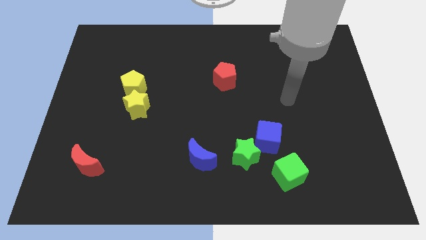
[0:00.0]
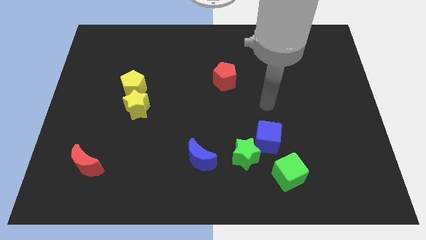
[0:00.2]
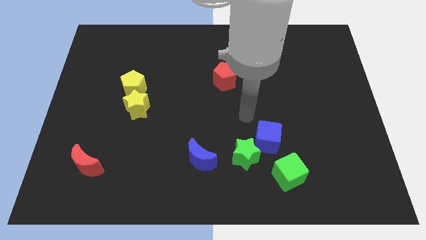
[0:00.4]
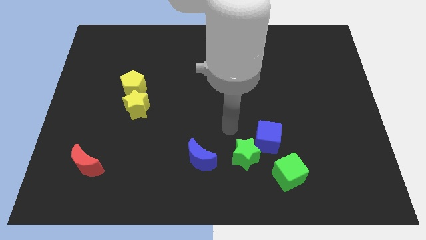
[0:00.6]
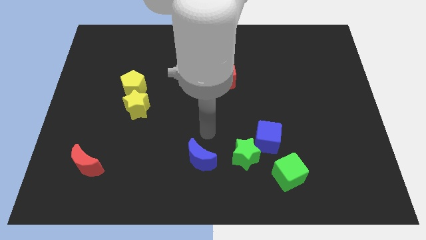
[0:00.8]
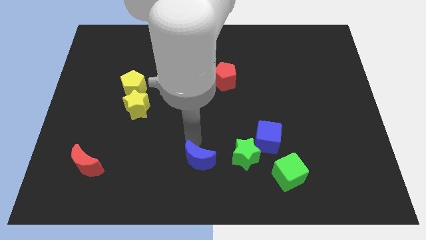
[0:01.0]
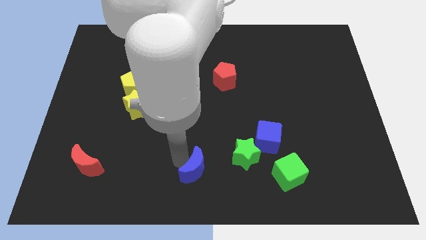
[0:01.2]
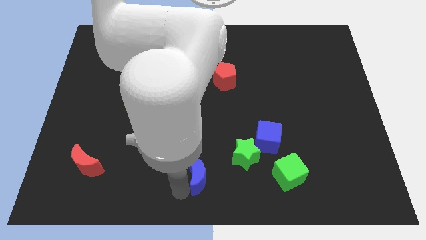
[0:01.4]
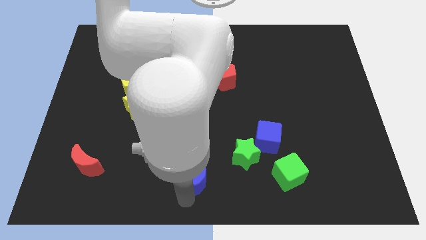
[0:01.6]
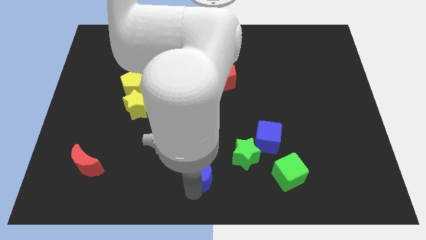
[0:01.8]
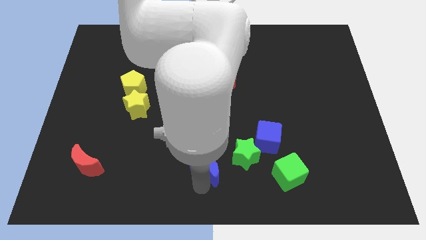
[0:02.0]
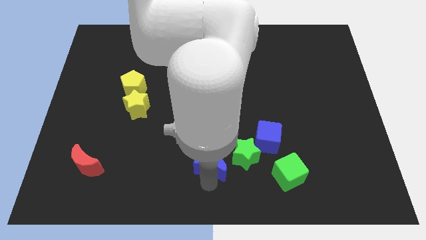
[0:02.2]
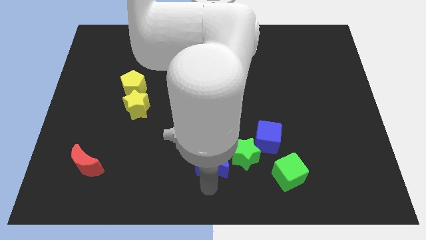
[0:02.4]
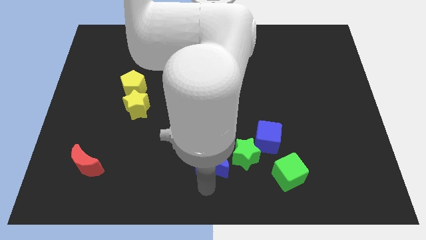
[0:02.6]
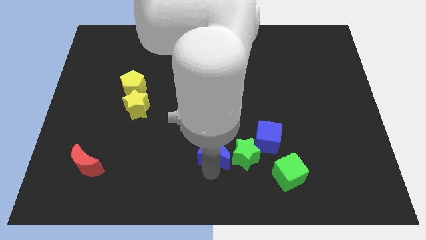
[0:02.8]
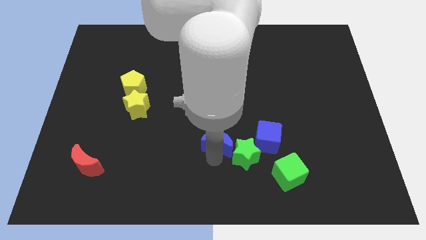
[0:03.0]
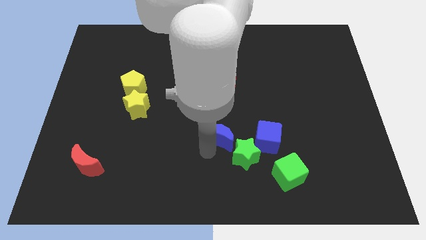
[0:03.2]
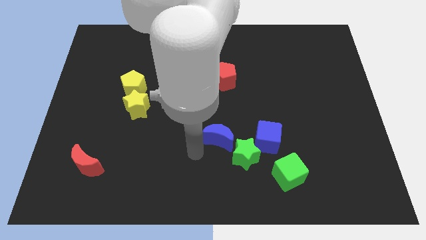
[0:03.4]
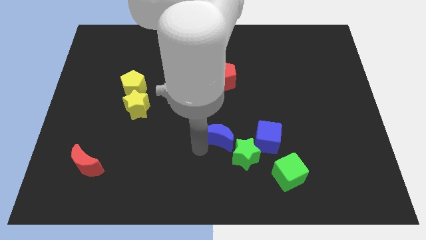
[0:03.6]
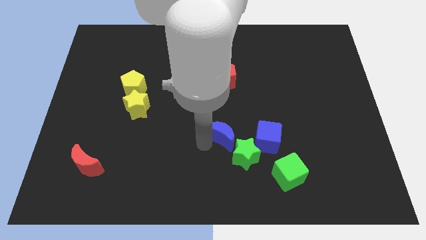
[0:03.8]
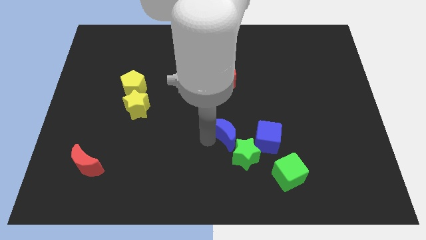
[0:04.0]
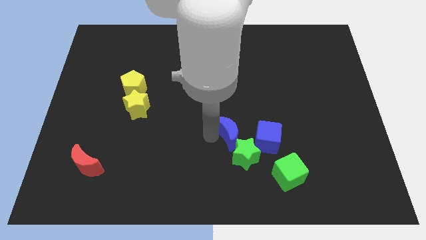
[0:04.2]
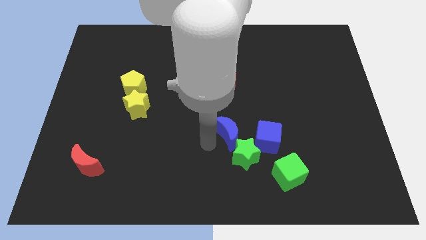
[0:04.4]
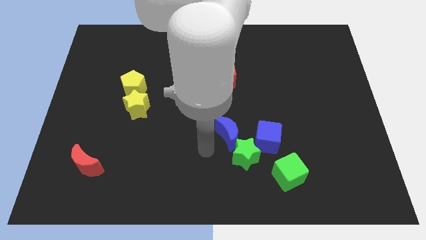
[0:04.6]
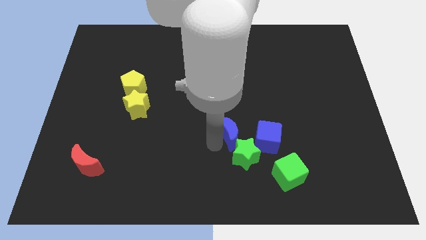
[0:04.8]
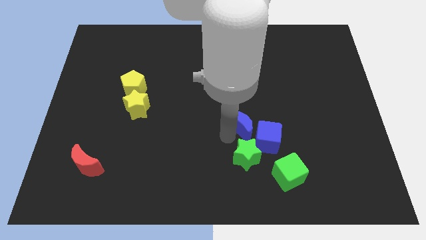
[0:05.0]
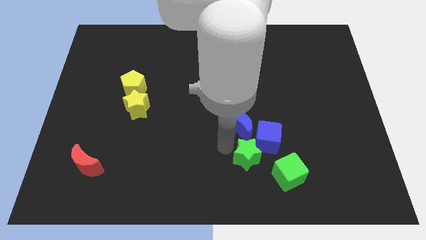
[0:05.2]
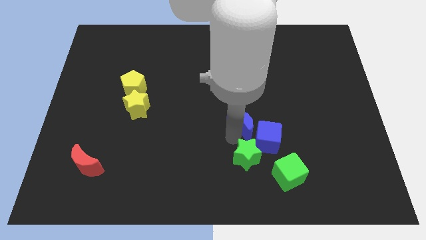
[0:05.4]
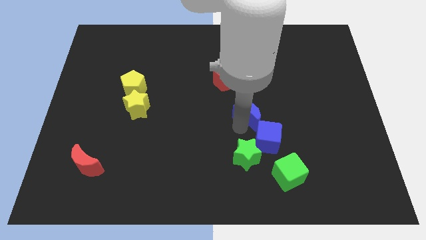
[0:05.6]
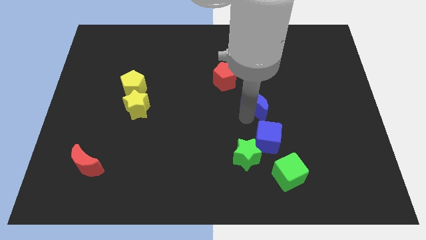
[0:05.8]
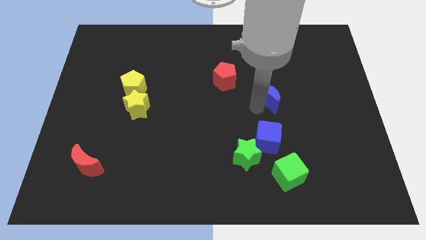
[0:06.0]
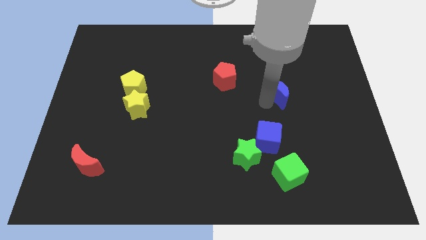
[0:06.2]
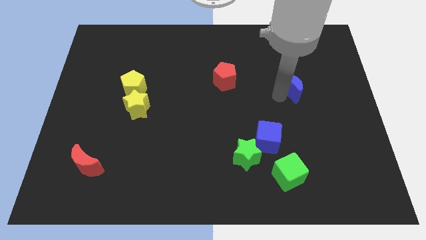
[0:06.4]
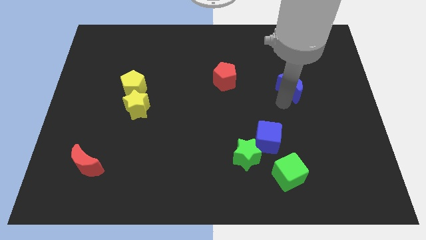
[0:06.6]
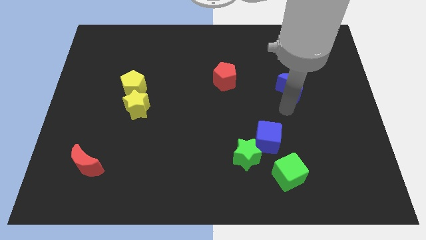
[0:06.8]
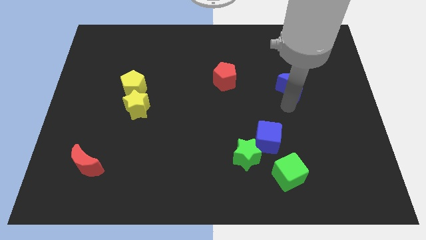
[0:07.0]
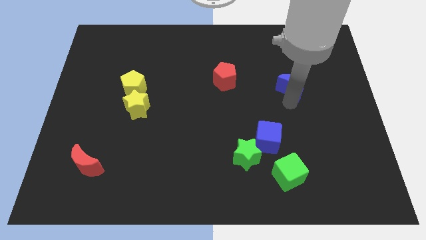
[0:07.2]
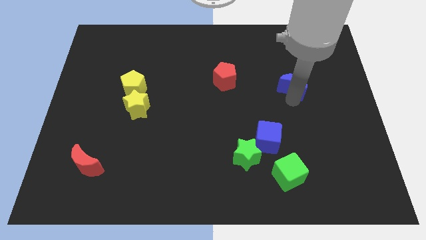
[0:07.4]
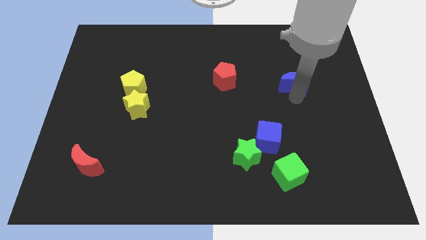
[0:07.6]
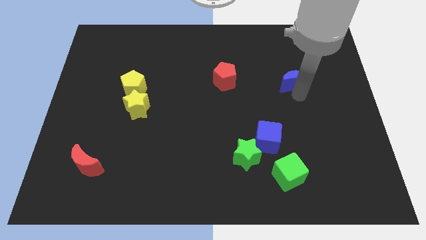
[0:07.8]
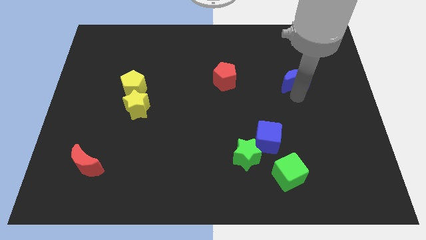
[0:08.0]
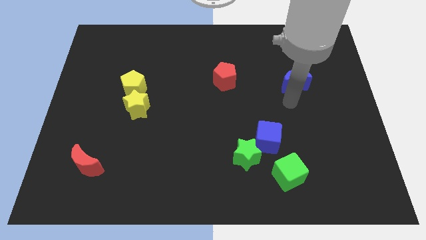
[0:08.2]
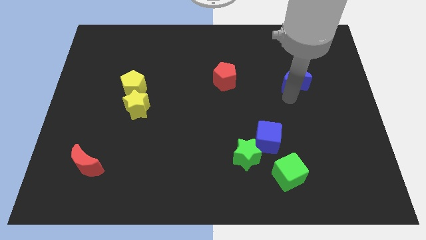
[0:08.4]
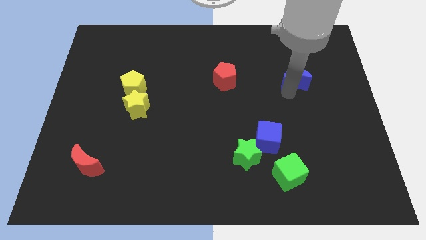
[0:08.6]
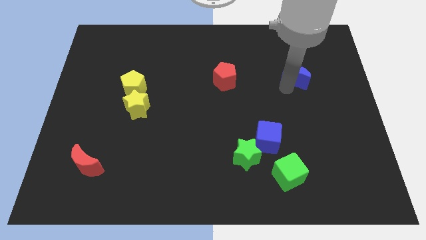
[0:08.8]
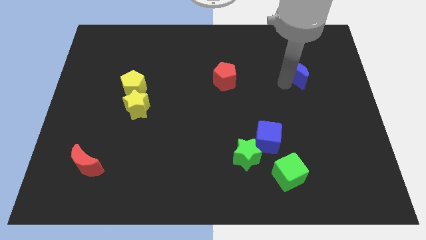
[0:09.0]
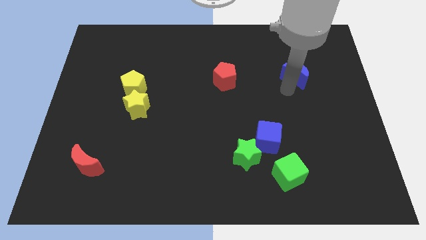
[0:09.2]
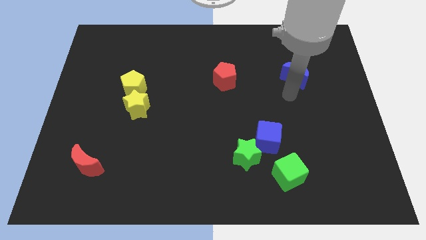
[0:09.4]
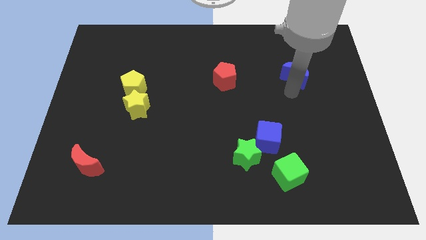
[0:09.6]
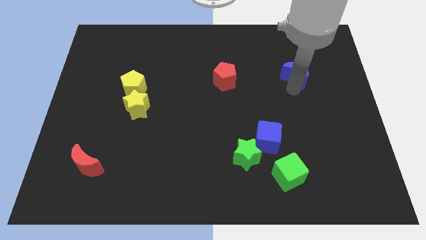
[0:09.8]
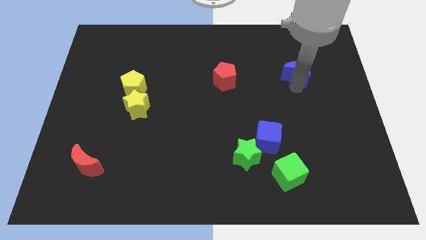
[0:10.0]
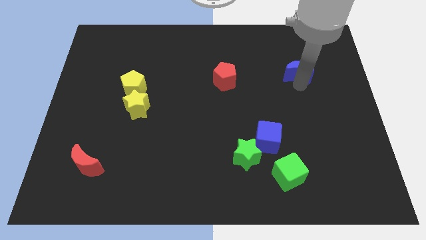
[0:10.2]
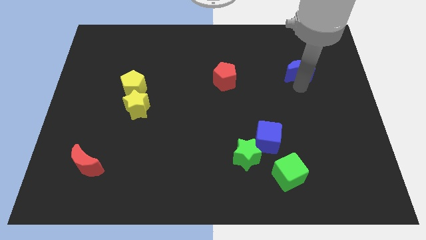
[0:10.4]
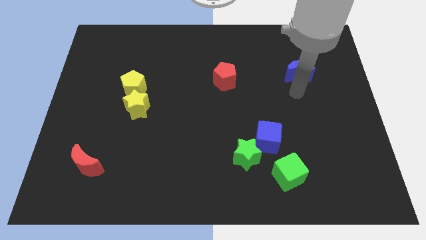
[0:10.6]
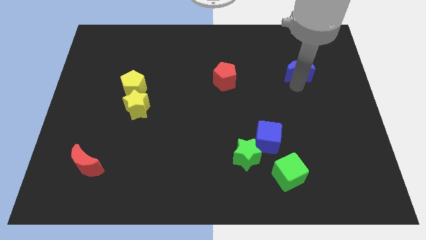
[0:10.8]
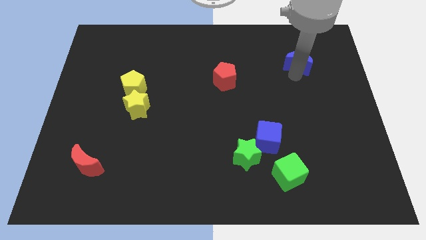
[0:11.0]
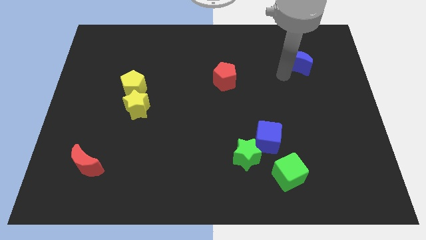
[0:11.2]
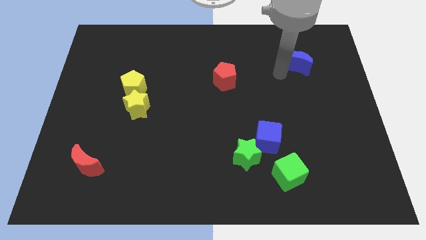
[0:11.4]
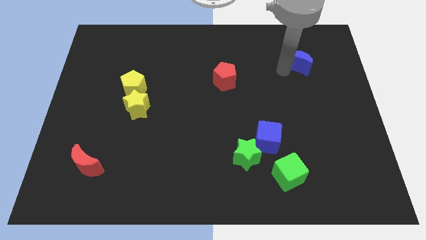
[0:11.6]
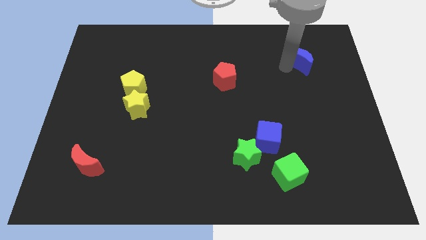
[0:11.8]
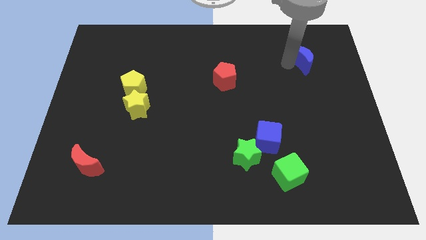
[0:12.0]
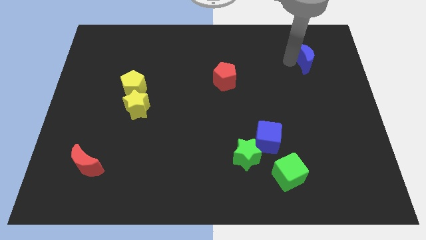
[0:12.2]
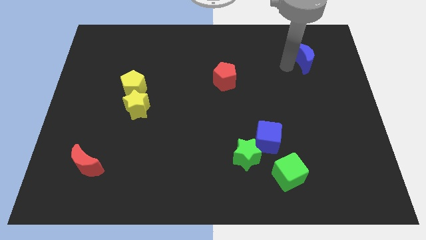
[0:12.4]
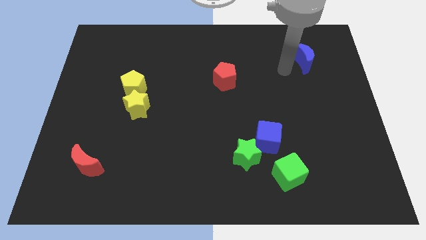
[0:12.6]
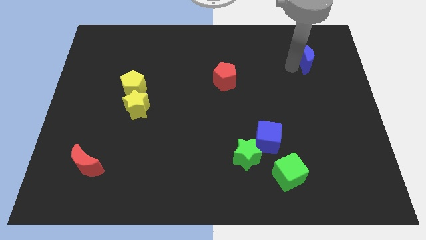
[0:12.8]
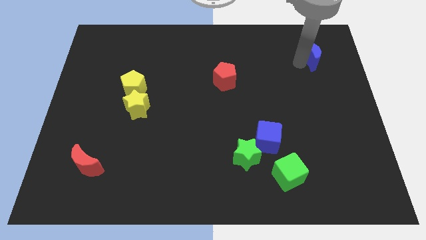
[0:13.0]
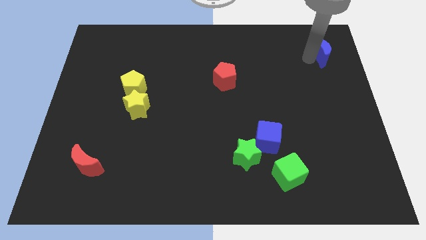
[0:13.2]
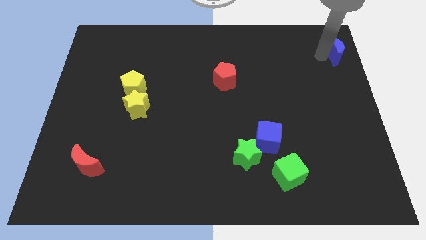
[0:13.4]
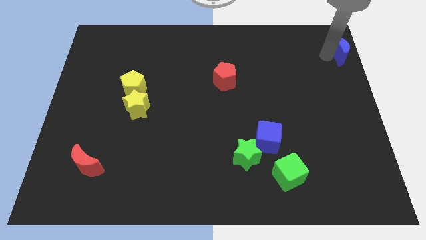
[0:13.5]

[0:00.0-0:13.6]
slide the blue moon to the upper right corner
